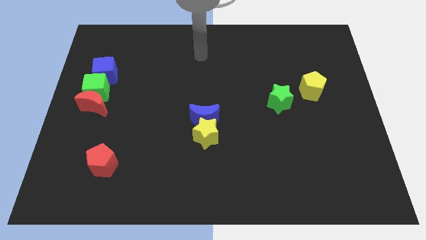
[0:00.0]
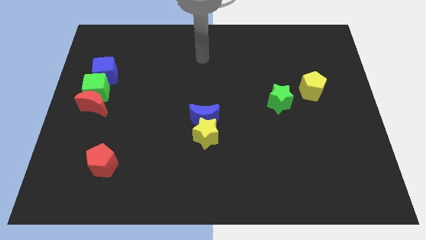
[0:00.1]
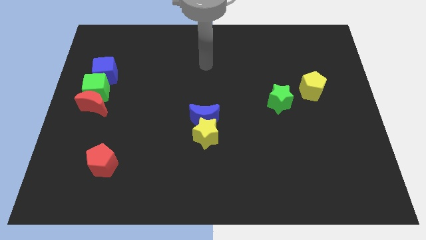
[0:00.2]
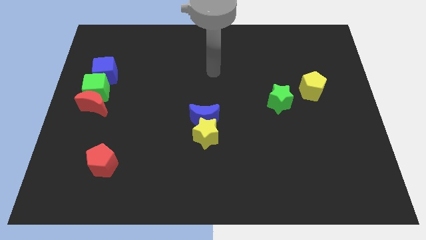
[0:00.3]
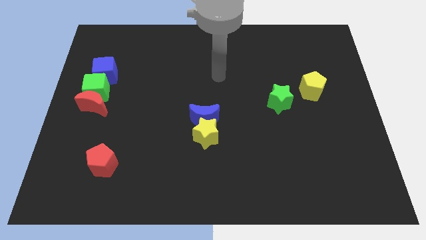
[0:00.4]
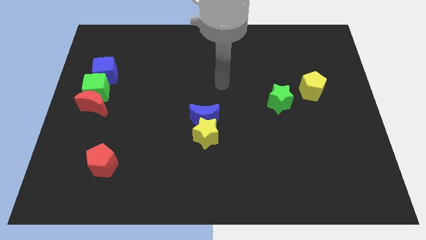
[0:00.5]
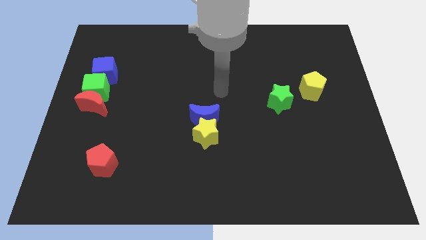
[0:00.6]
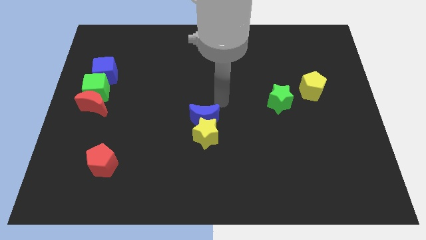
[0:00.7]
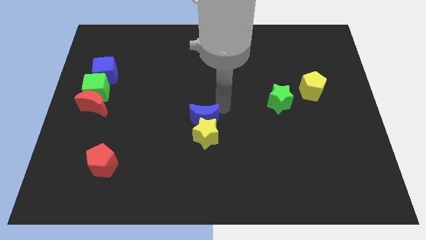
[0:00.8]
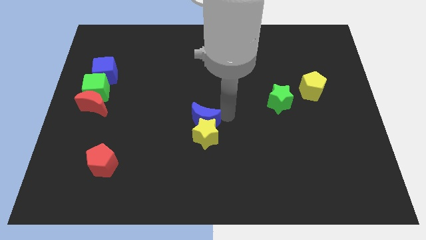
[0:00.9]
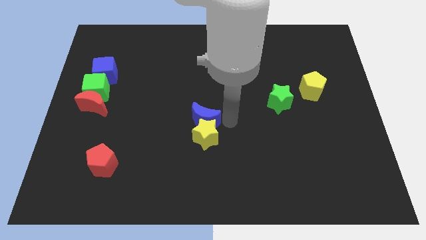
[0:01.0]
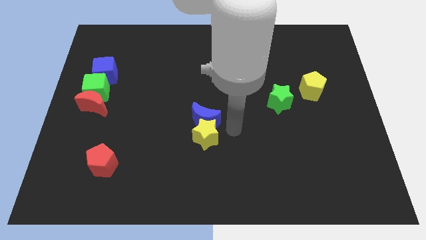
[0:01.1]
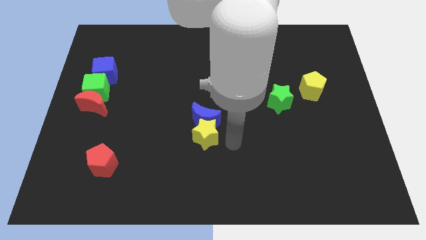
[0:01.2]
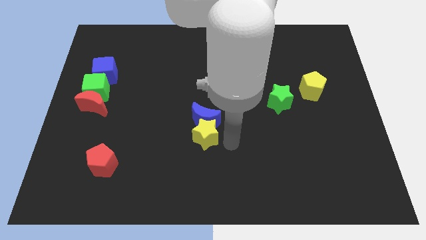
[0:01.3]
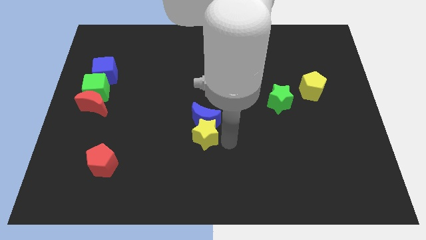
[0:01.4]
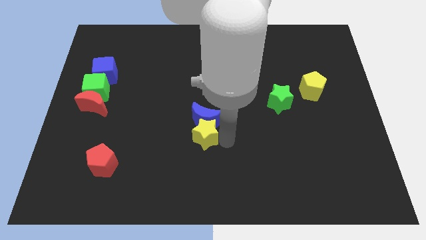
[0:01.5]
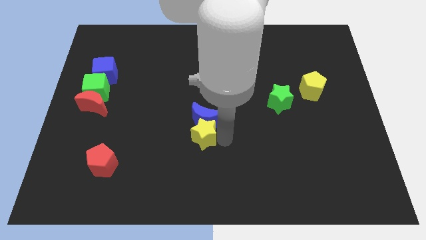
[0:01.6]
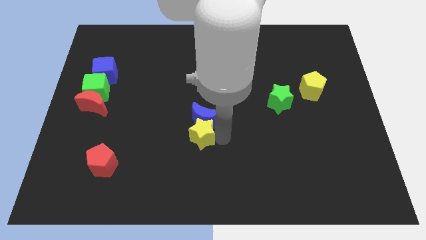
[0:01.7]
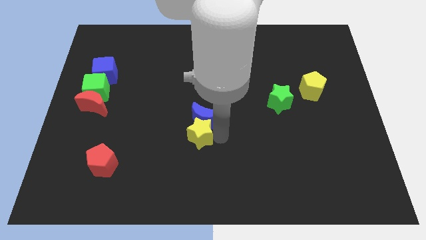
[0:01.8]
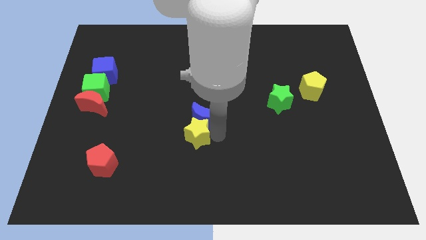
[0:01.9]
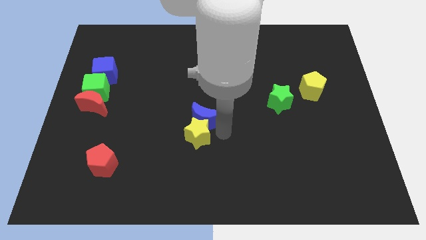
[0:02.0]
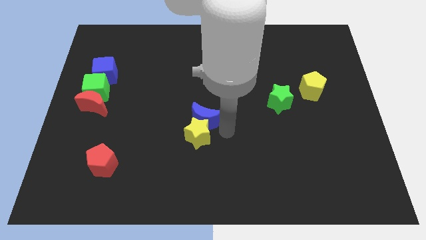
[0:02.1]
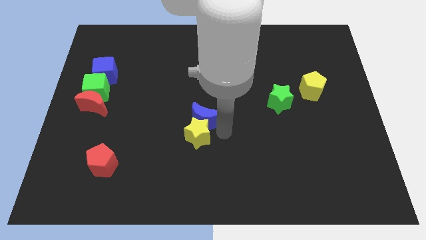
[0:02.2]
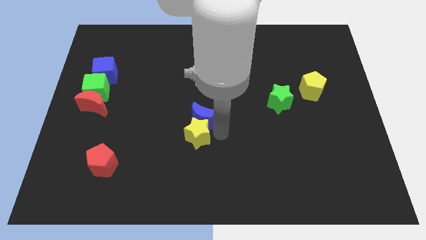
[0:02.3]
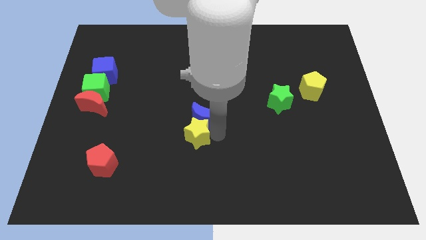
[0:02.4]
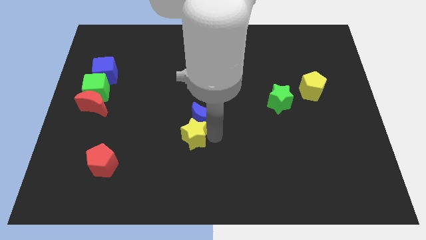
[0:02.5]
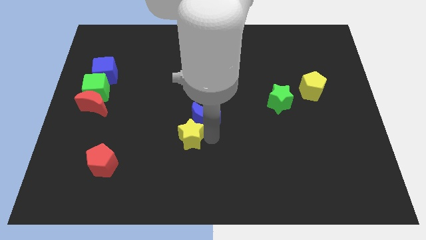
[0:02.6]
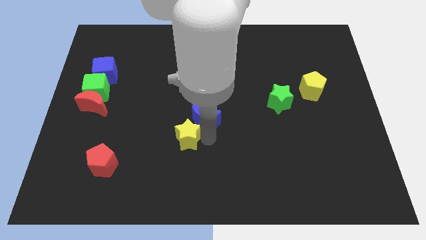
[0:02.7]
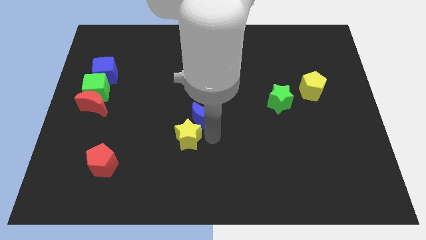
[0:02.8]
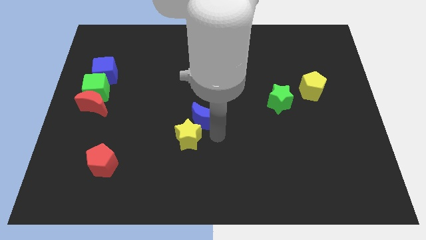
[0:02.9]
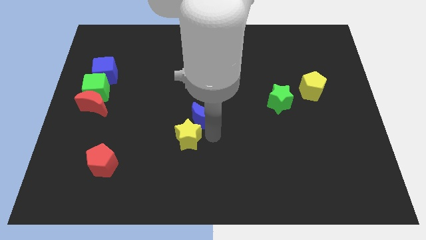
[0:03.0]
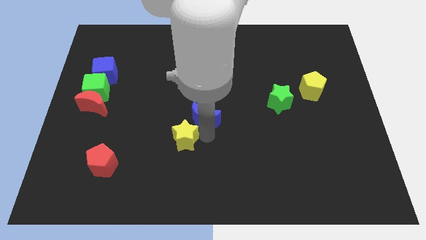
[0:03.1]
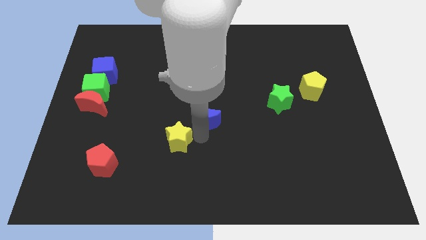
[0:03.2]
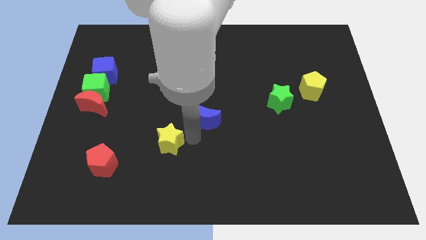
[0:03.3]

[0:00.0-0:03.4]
move the yellow star somewhat left

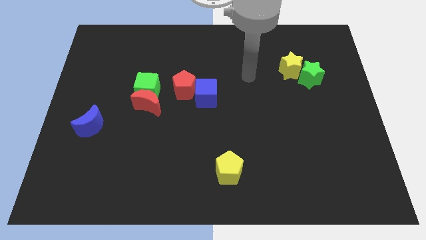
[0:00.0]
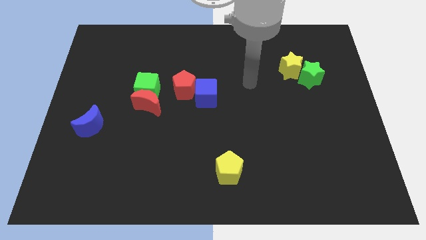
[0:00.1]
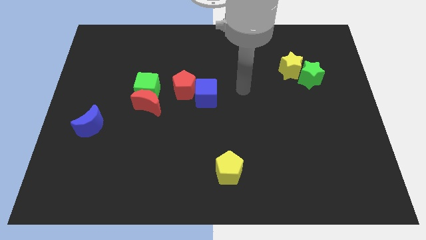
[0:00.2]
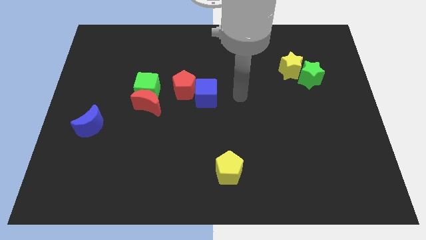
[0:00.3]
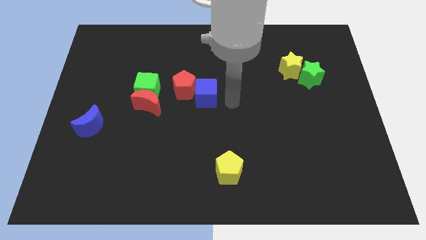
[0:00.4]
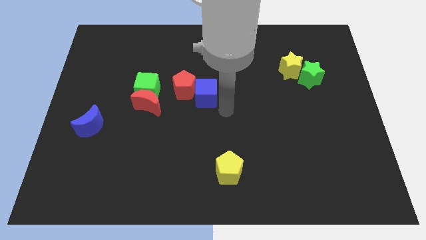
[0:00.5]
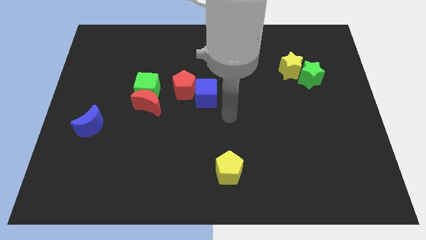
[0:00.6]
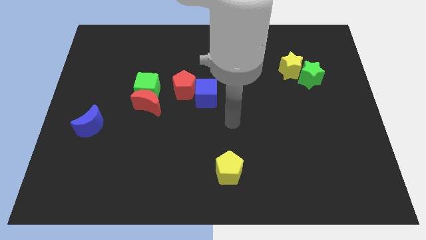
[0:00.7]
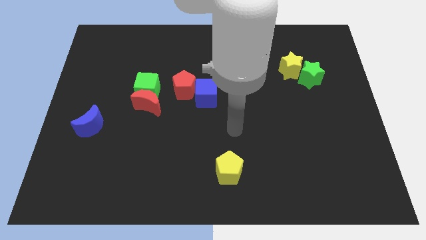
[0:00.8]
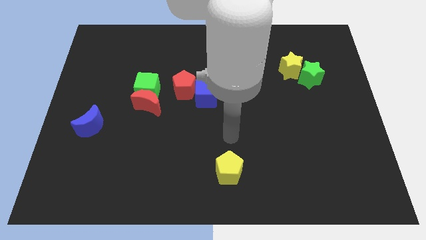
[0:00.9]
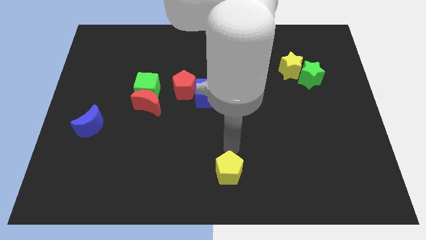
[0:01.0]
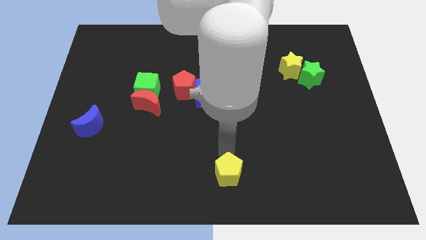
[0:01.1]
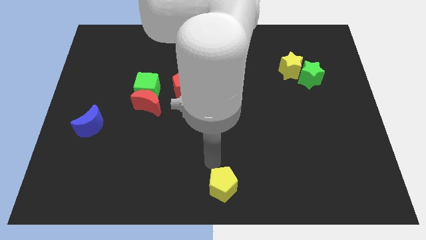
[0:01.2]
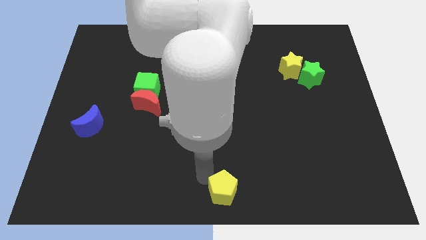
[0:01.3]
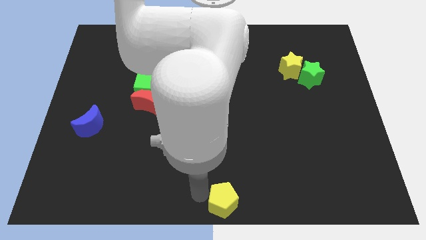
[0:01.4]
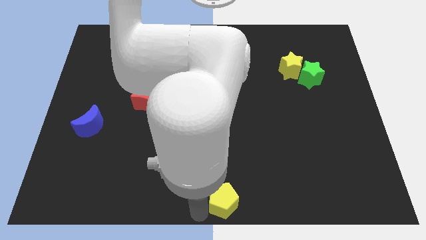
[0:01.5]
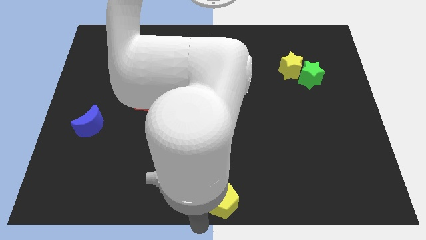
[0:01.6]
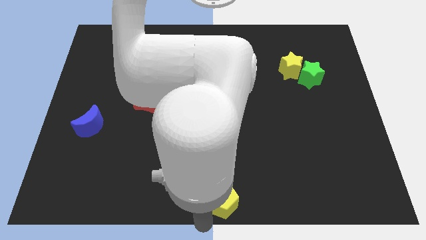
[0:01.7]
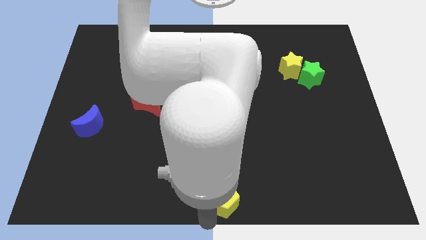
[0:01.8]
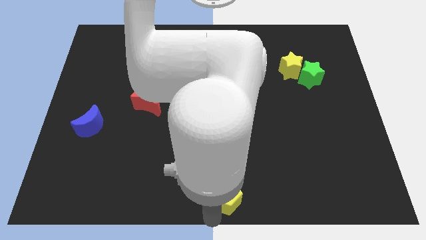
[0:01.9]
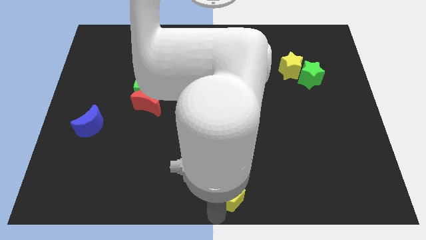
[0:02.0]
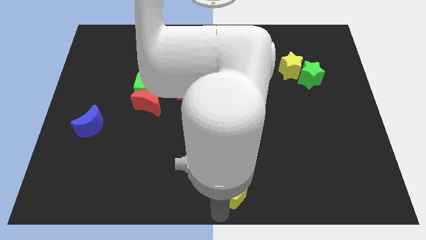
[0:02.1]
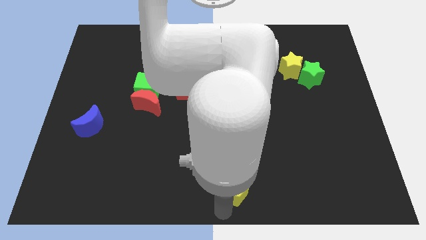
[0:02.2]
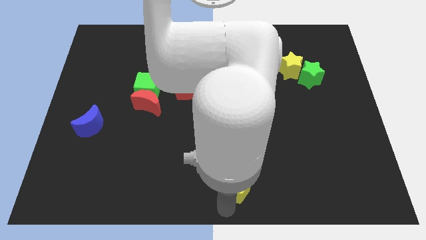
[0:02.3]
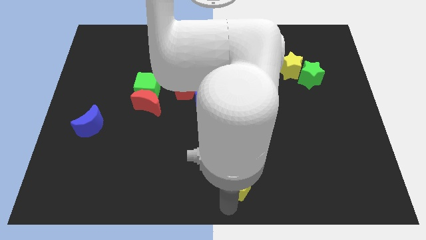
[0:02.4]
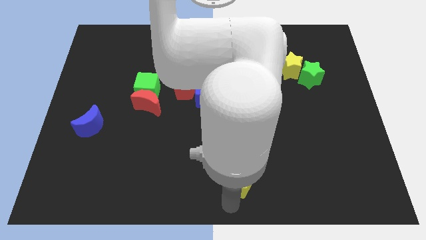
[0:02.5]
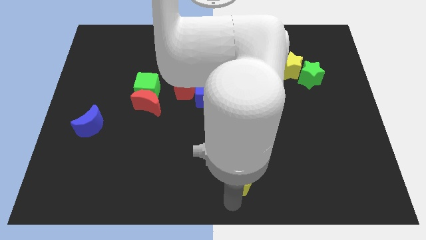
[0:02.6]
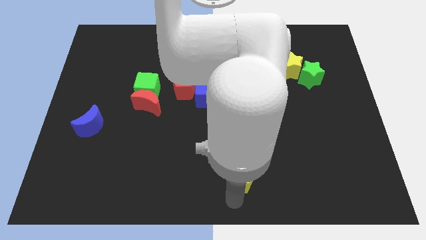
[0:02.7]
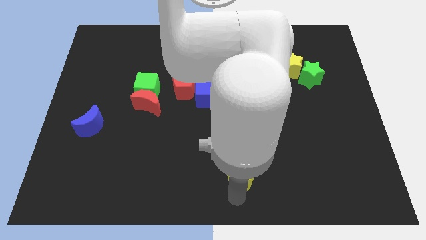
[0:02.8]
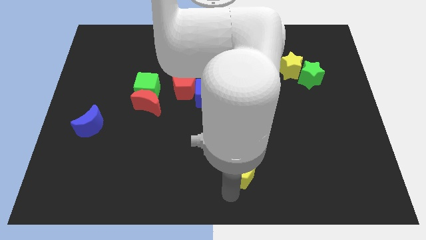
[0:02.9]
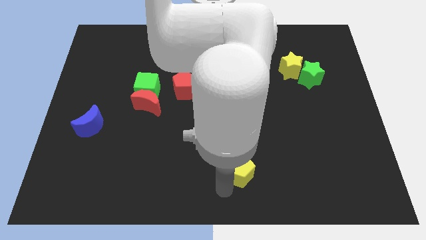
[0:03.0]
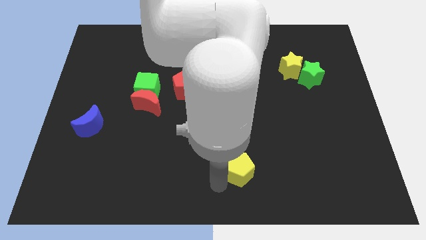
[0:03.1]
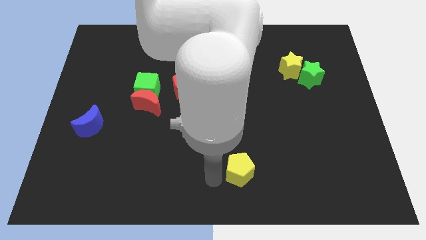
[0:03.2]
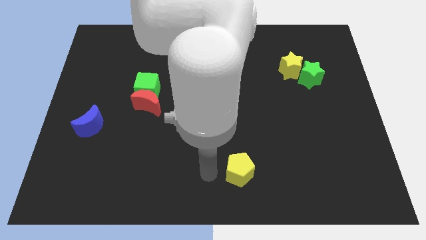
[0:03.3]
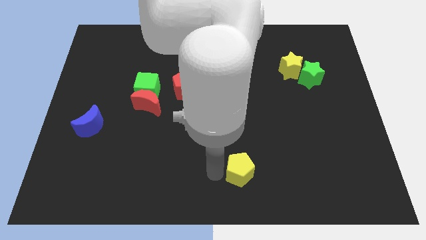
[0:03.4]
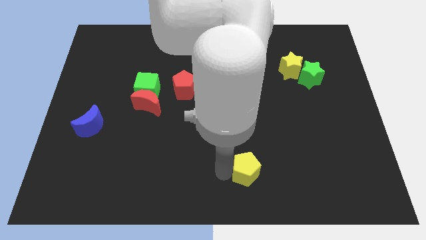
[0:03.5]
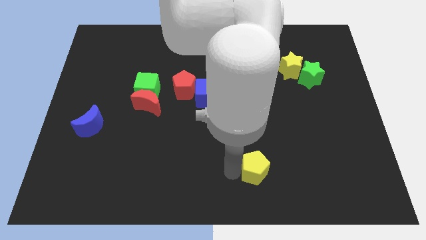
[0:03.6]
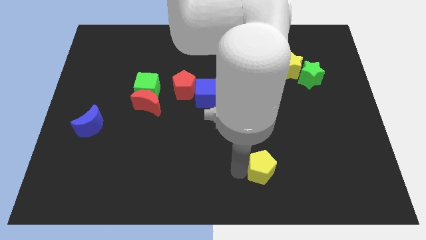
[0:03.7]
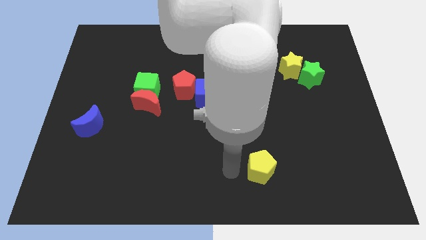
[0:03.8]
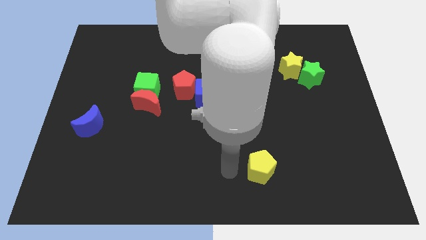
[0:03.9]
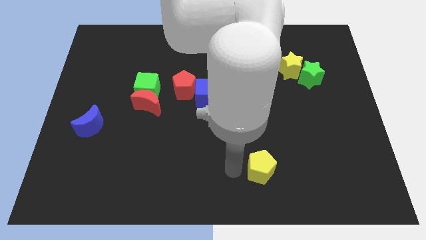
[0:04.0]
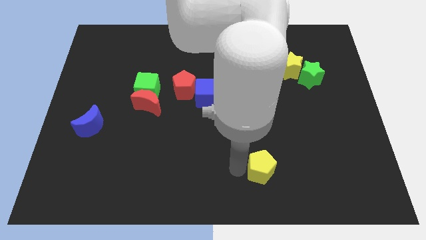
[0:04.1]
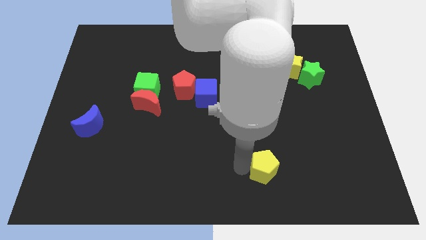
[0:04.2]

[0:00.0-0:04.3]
push the yellow pentagon somewhat to the right

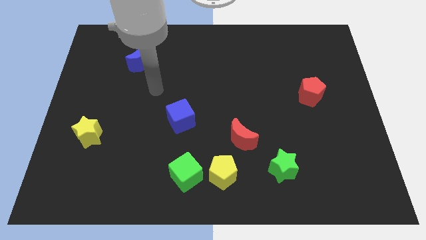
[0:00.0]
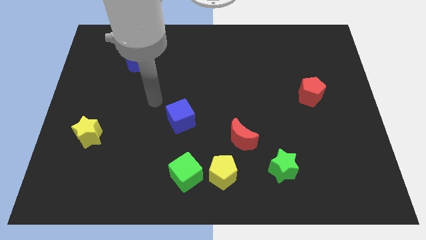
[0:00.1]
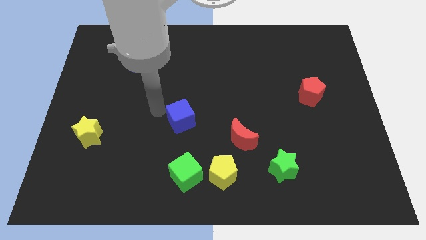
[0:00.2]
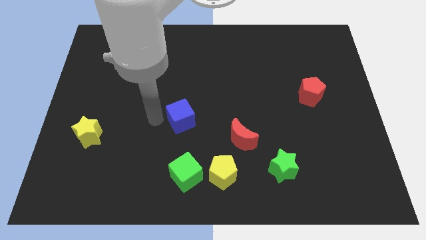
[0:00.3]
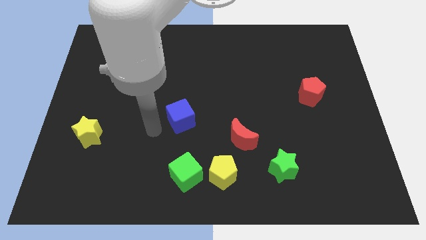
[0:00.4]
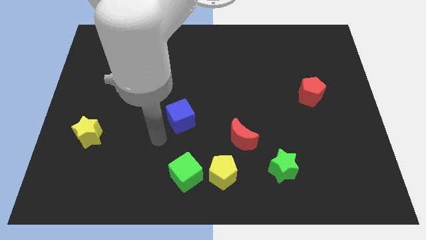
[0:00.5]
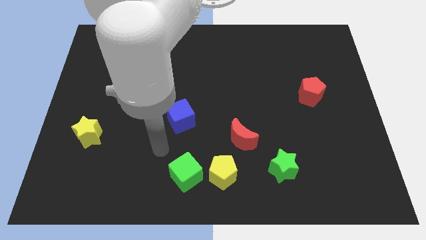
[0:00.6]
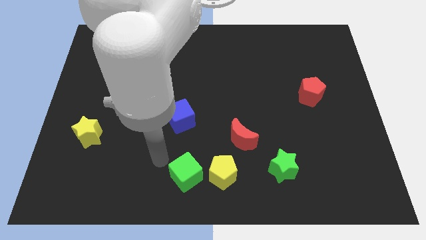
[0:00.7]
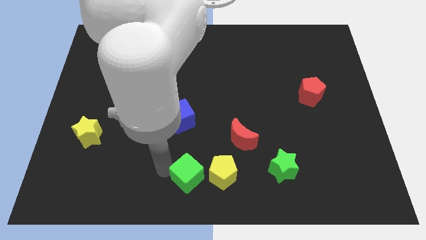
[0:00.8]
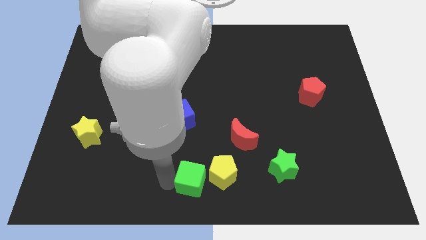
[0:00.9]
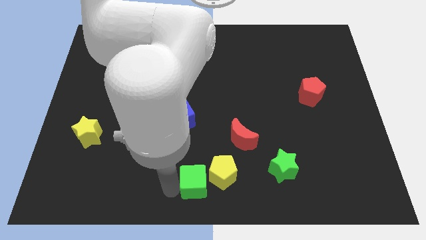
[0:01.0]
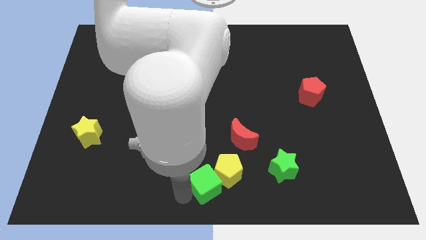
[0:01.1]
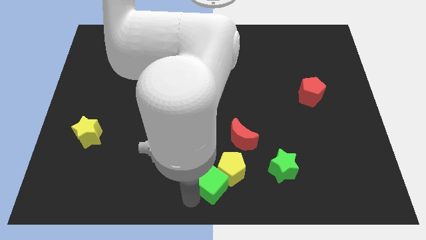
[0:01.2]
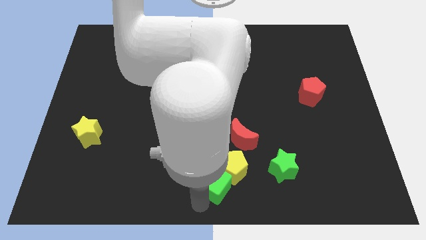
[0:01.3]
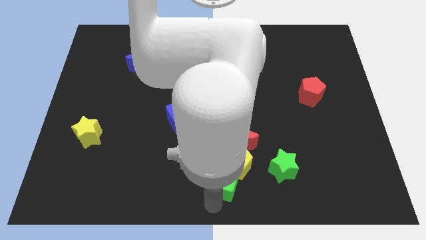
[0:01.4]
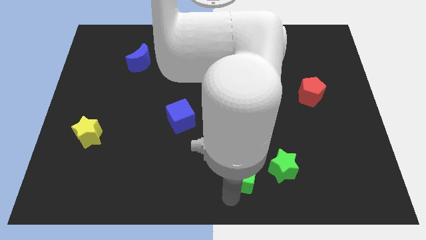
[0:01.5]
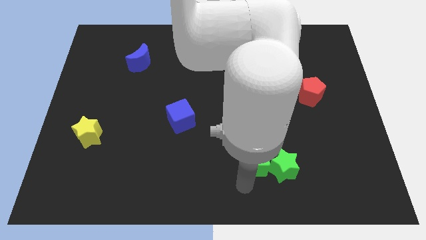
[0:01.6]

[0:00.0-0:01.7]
slightly push the yellow pentagon up
